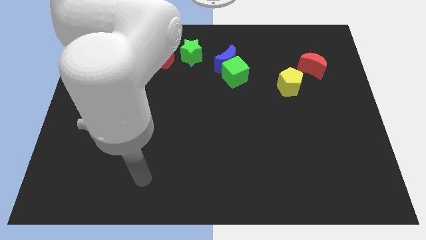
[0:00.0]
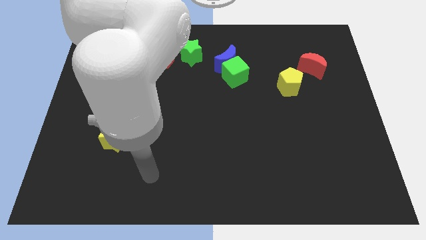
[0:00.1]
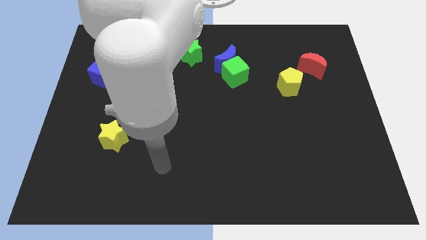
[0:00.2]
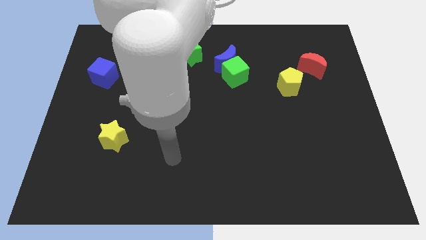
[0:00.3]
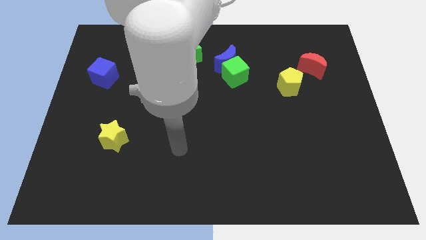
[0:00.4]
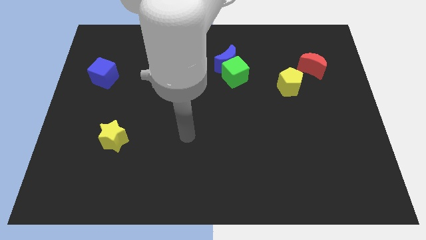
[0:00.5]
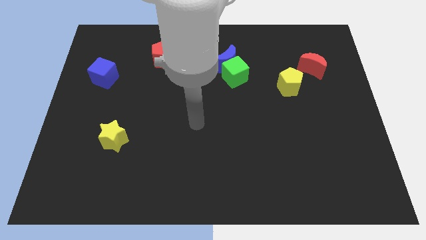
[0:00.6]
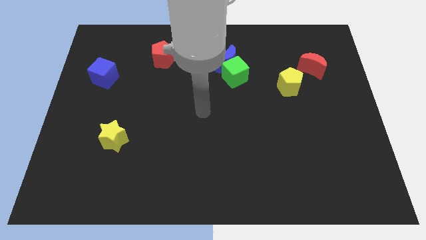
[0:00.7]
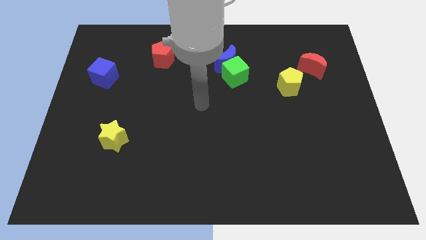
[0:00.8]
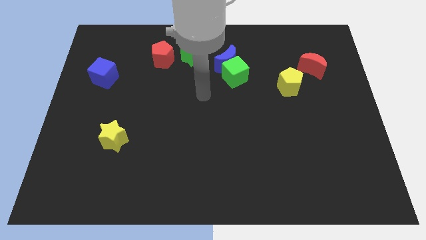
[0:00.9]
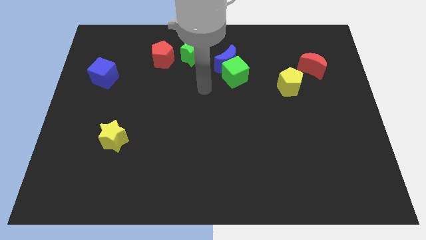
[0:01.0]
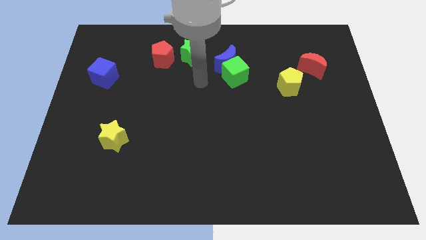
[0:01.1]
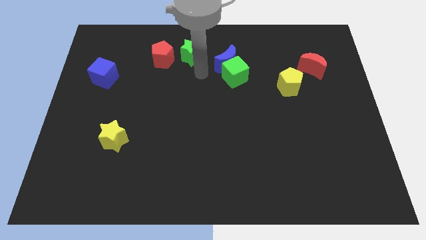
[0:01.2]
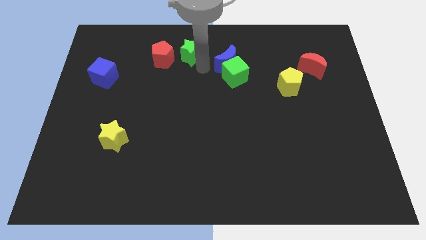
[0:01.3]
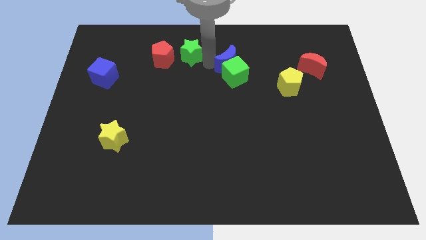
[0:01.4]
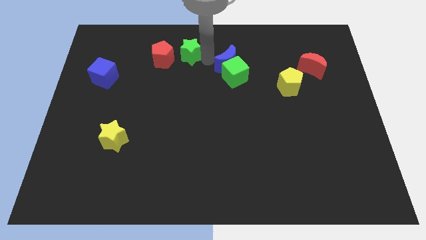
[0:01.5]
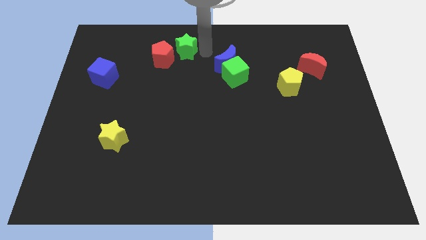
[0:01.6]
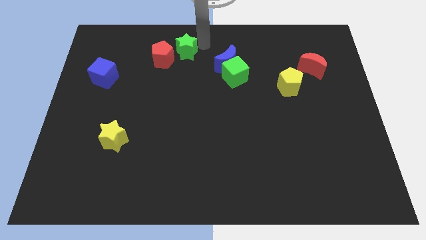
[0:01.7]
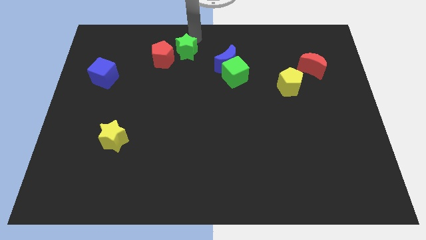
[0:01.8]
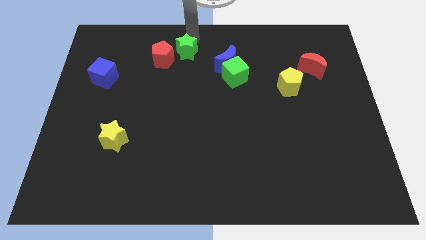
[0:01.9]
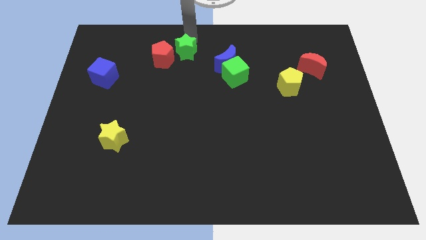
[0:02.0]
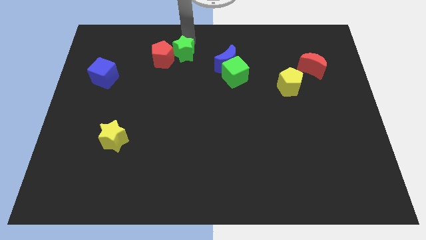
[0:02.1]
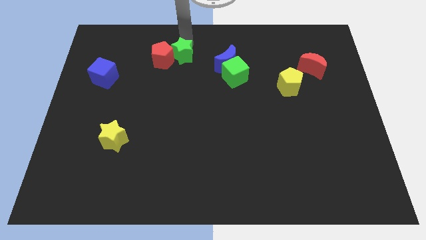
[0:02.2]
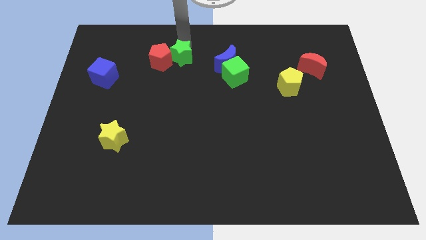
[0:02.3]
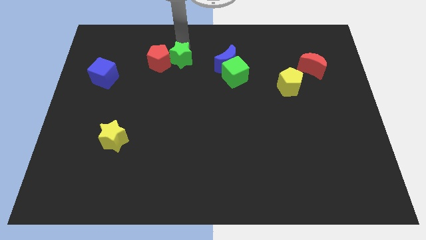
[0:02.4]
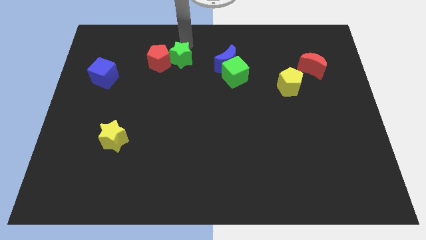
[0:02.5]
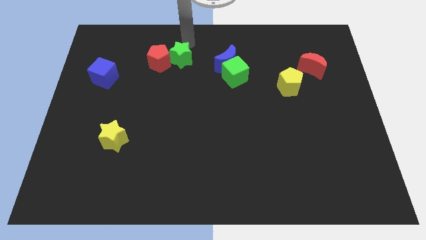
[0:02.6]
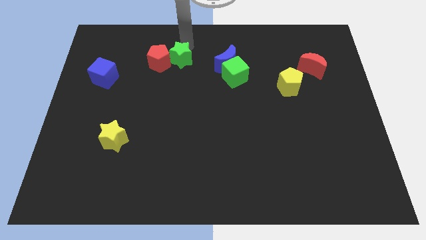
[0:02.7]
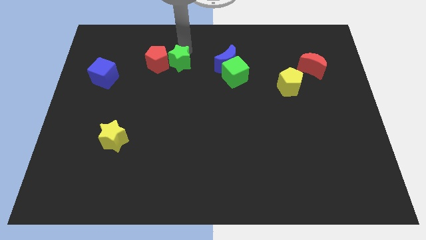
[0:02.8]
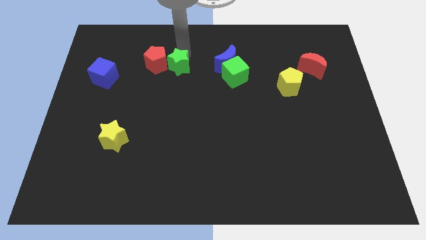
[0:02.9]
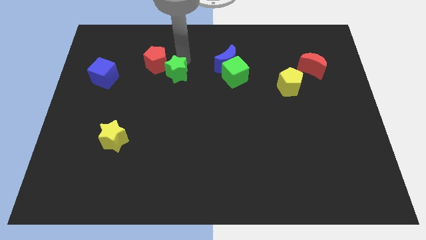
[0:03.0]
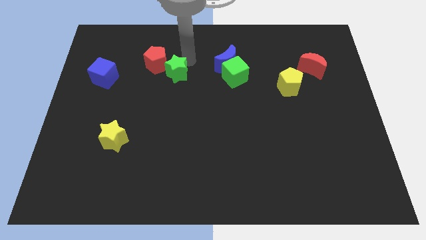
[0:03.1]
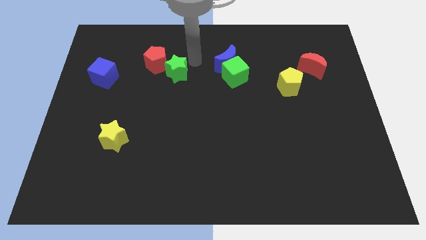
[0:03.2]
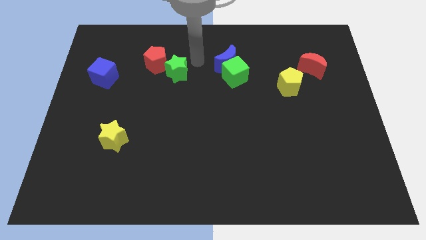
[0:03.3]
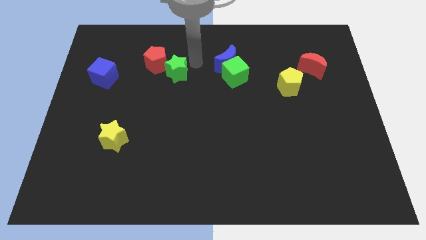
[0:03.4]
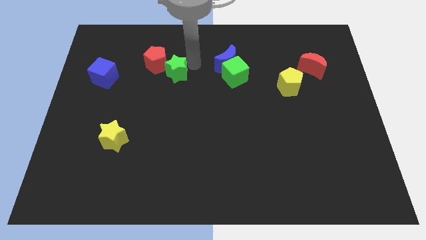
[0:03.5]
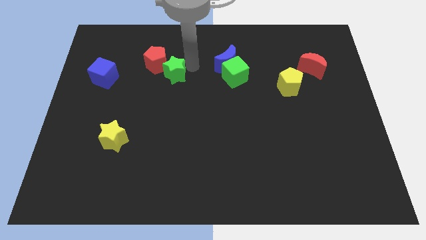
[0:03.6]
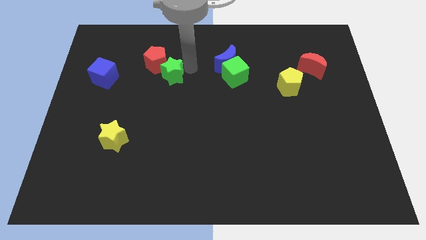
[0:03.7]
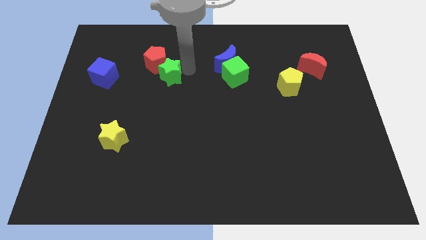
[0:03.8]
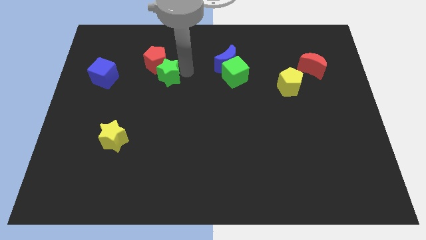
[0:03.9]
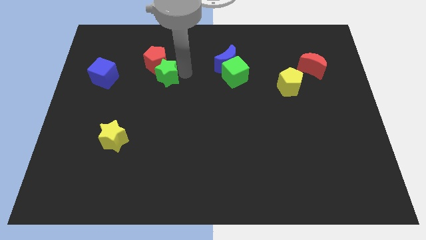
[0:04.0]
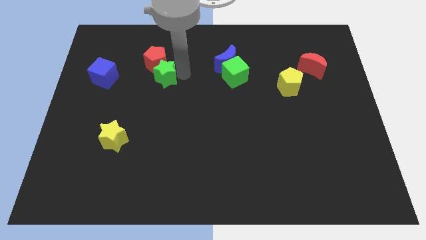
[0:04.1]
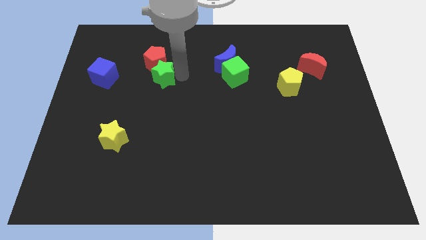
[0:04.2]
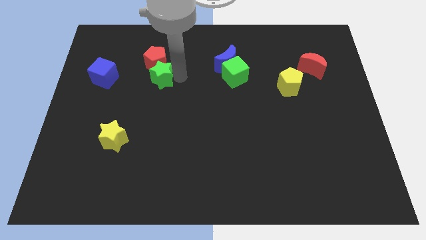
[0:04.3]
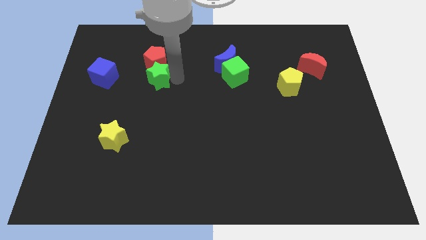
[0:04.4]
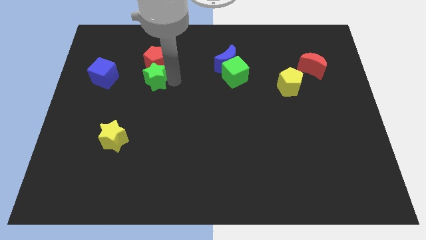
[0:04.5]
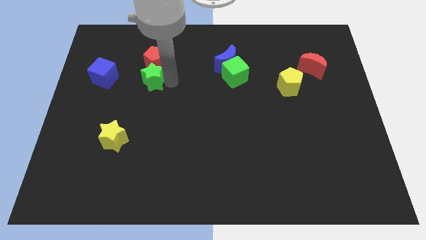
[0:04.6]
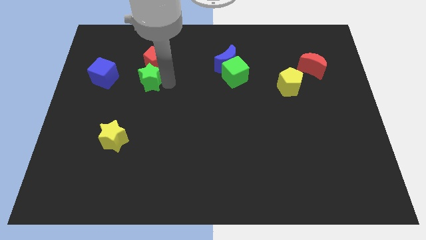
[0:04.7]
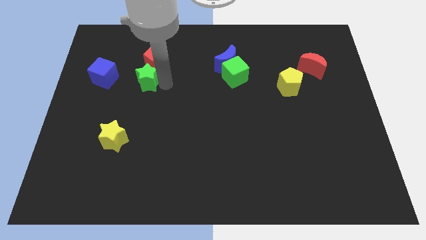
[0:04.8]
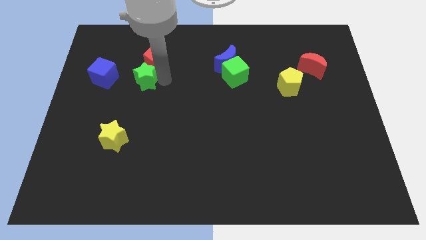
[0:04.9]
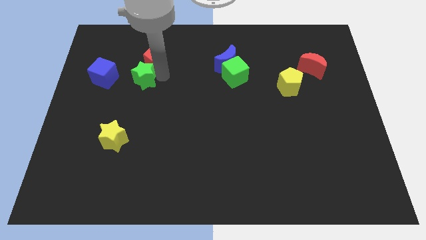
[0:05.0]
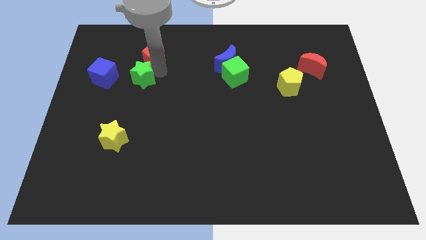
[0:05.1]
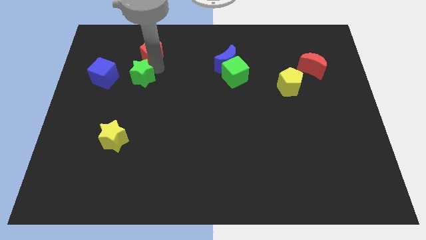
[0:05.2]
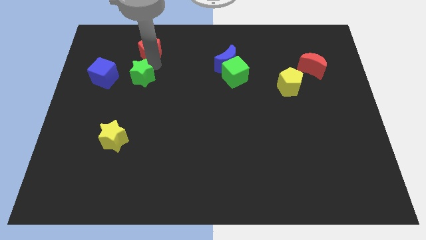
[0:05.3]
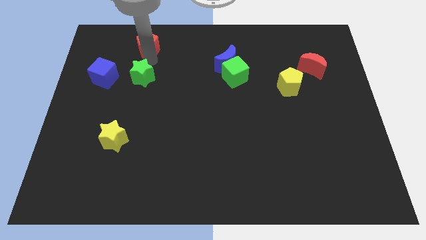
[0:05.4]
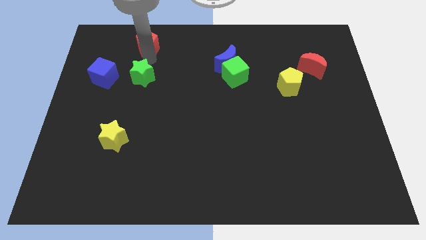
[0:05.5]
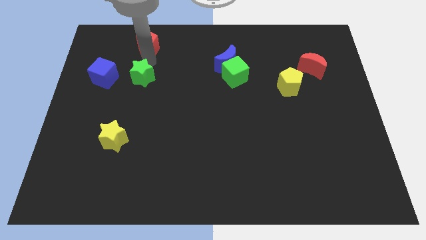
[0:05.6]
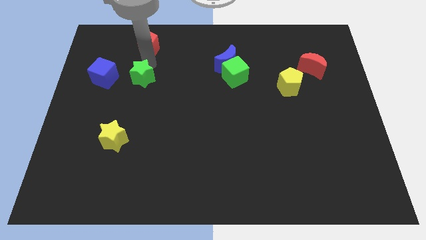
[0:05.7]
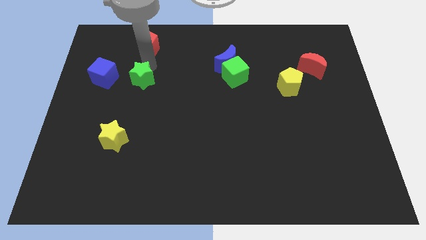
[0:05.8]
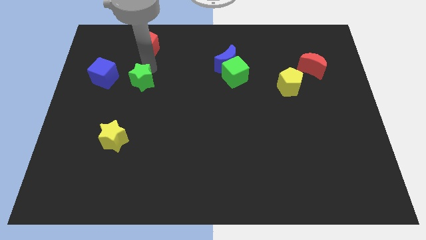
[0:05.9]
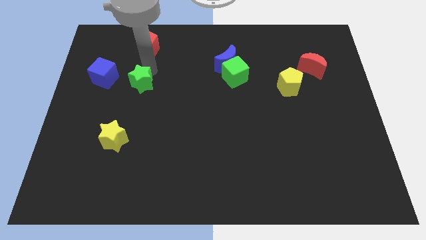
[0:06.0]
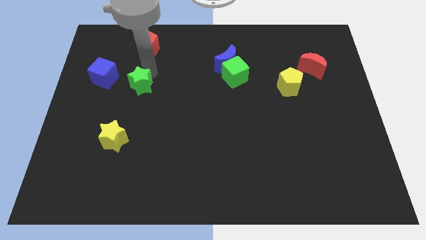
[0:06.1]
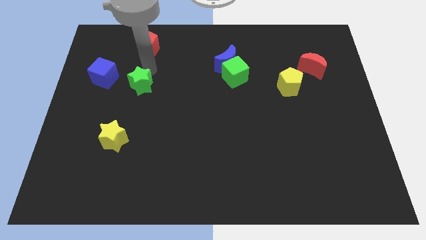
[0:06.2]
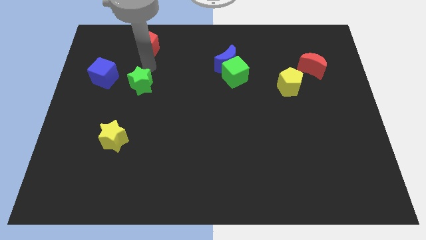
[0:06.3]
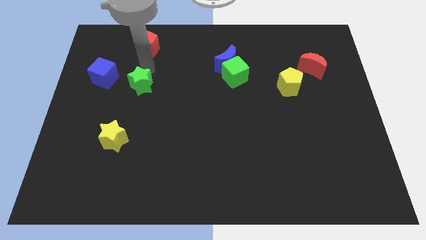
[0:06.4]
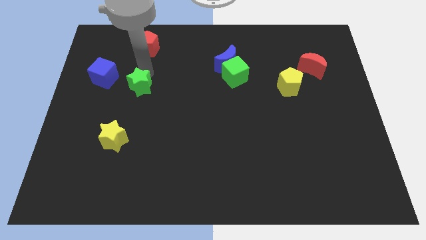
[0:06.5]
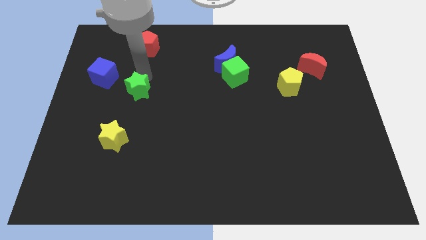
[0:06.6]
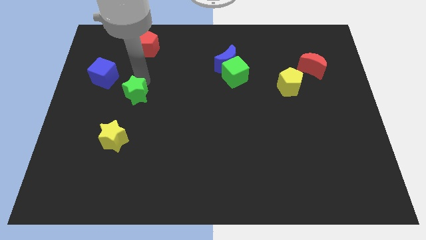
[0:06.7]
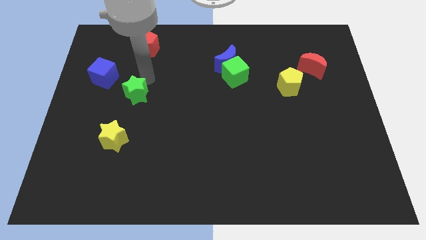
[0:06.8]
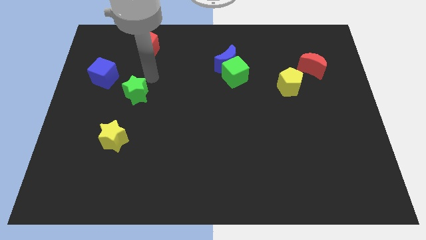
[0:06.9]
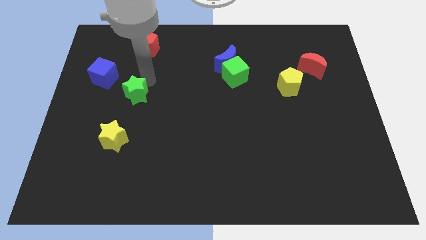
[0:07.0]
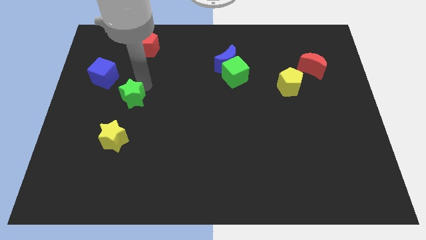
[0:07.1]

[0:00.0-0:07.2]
push the green star diagonally downwards and left

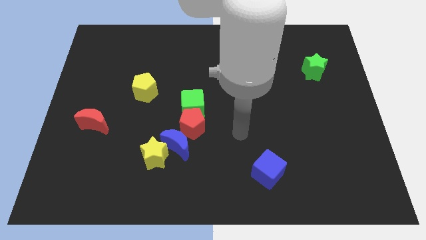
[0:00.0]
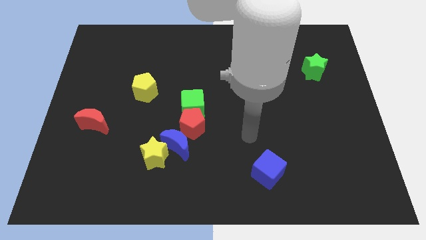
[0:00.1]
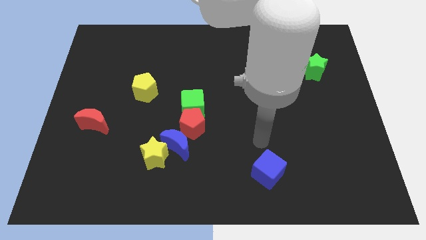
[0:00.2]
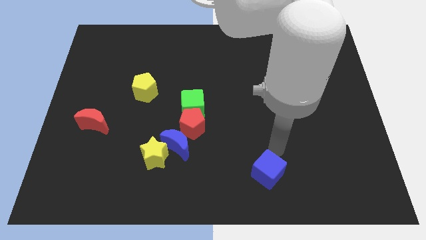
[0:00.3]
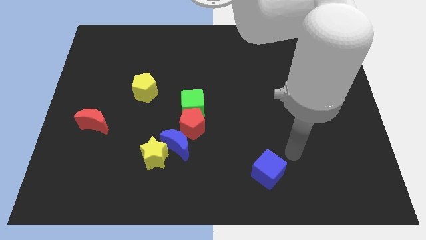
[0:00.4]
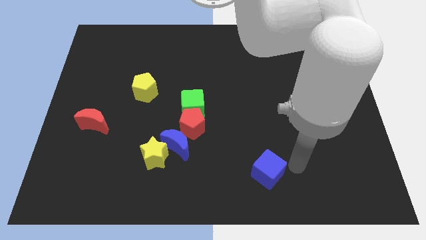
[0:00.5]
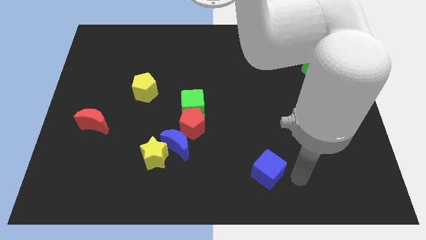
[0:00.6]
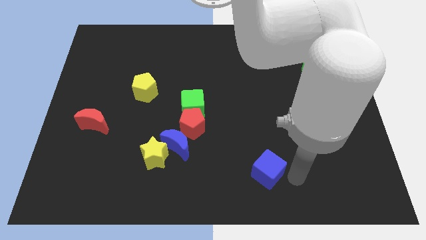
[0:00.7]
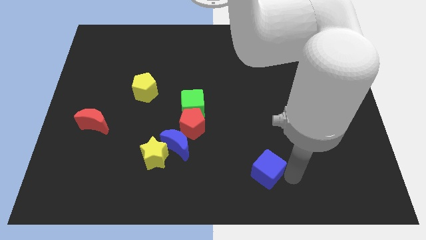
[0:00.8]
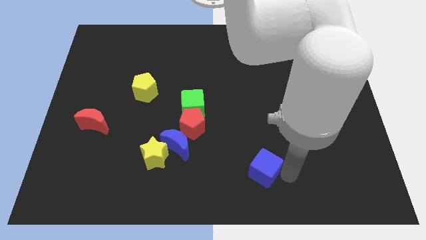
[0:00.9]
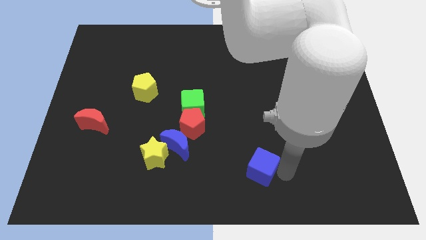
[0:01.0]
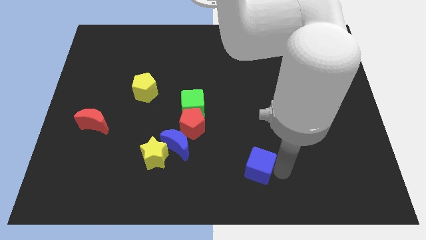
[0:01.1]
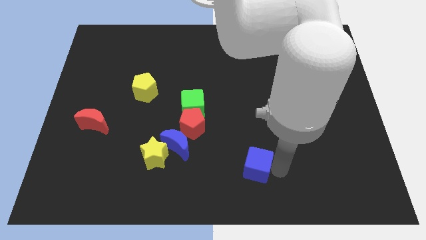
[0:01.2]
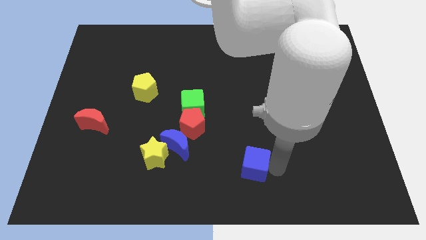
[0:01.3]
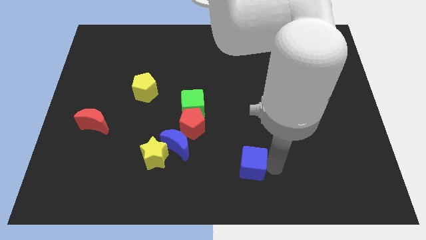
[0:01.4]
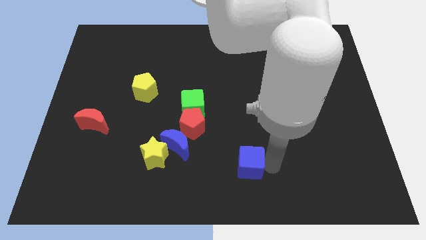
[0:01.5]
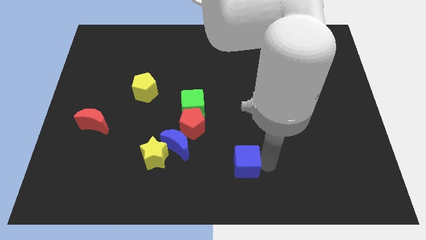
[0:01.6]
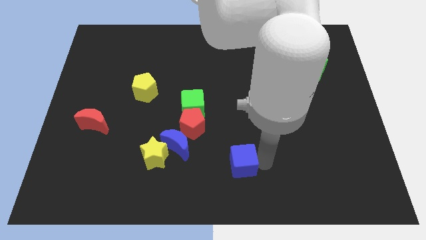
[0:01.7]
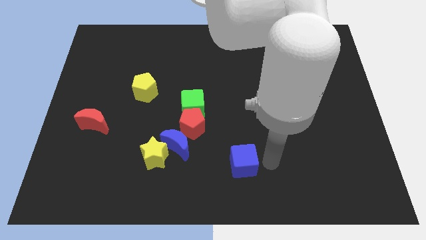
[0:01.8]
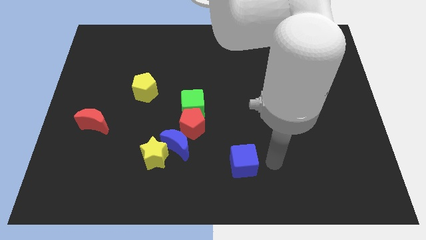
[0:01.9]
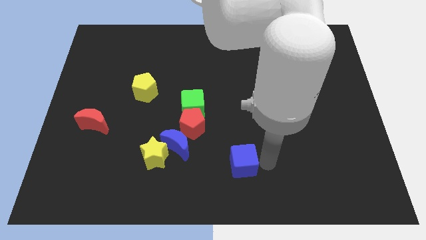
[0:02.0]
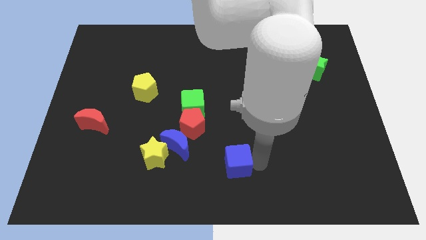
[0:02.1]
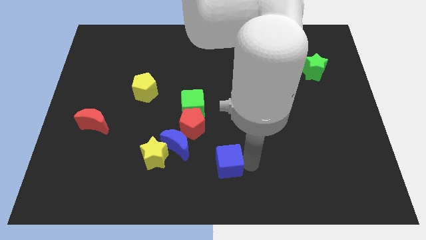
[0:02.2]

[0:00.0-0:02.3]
push the blue cube a little left
